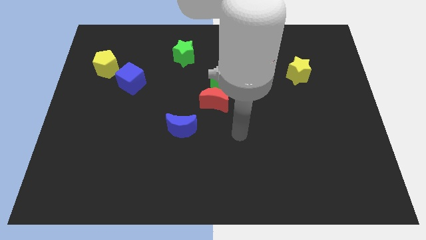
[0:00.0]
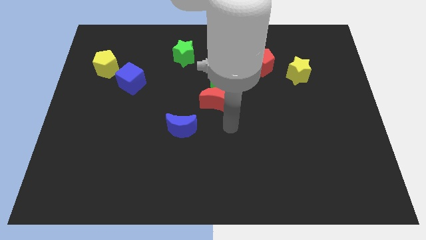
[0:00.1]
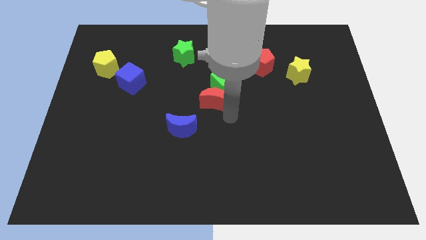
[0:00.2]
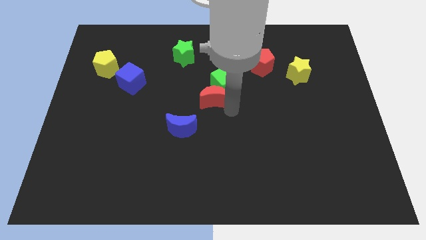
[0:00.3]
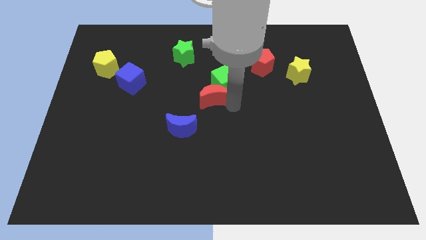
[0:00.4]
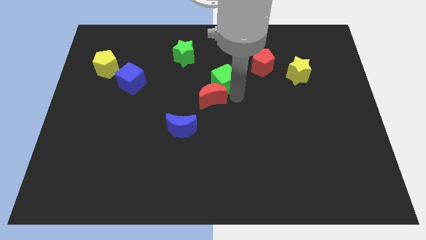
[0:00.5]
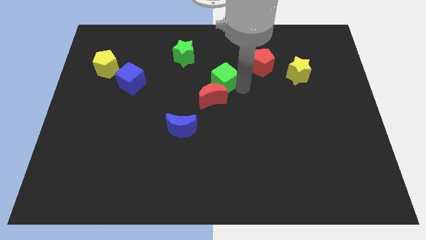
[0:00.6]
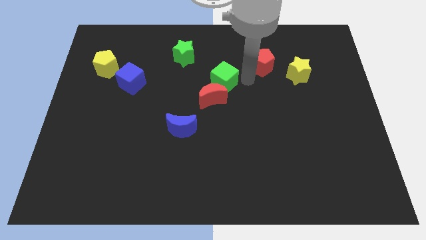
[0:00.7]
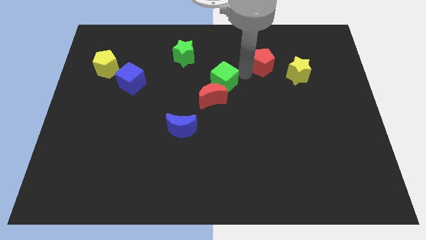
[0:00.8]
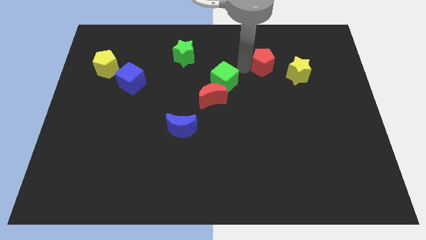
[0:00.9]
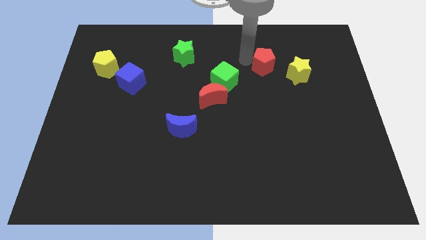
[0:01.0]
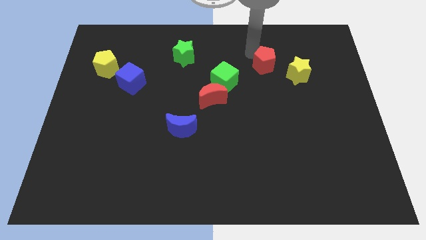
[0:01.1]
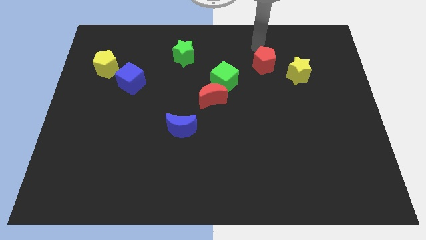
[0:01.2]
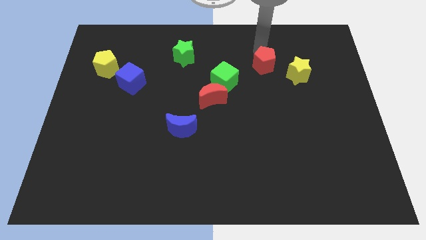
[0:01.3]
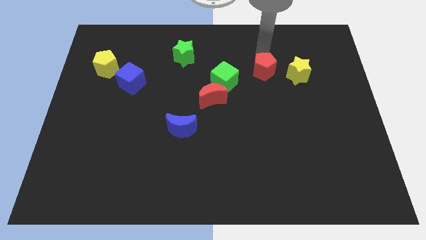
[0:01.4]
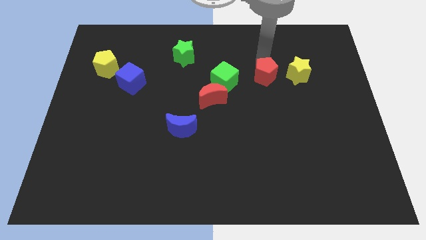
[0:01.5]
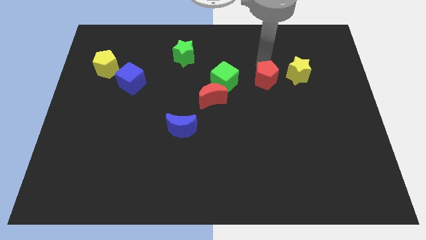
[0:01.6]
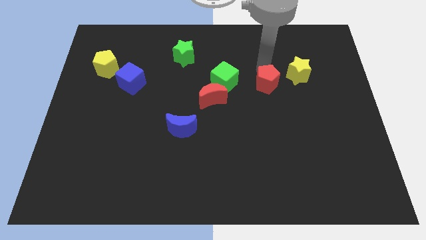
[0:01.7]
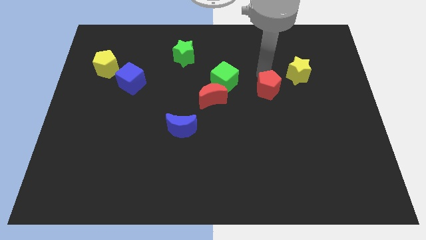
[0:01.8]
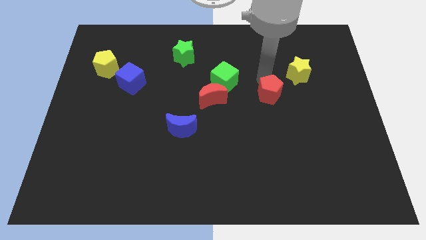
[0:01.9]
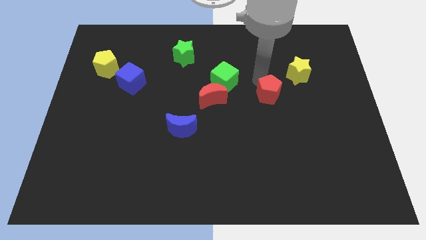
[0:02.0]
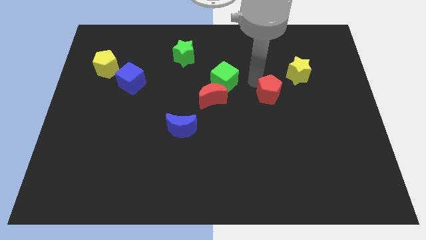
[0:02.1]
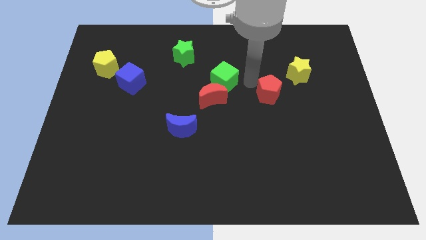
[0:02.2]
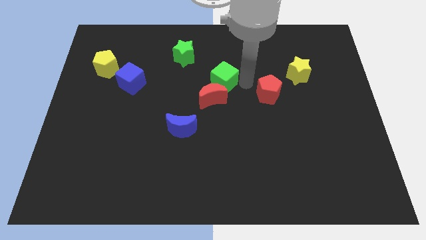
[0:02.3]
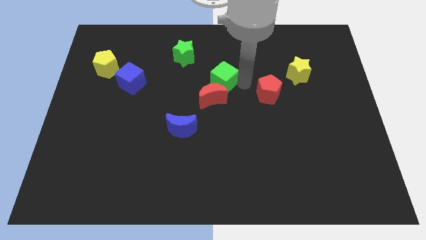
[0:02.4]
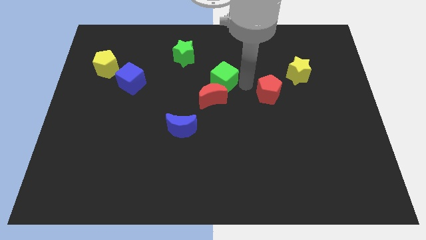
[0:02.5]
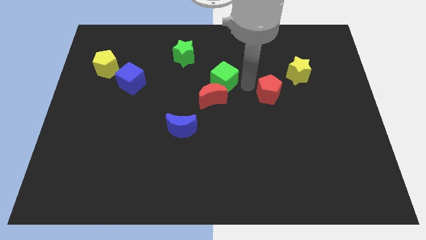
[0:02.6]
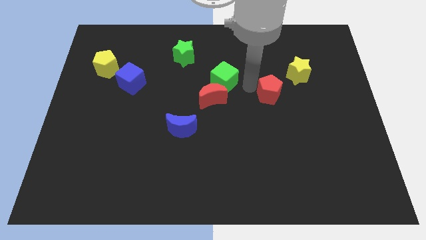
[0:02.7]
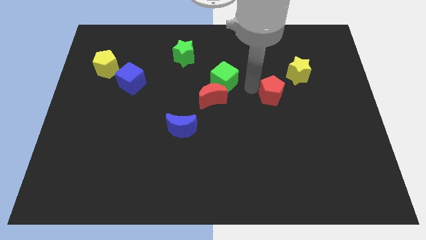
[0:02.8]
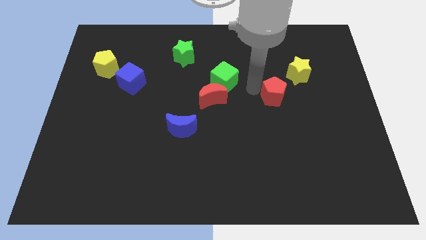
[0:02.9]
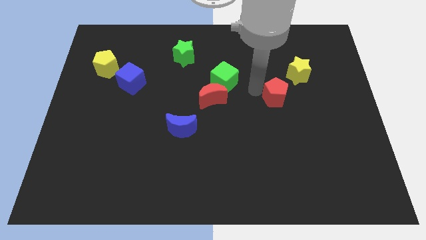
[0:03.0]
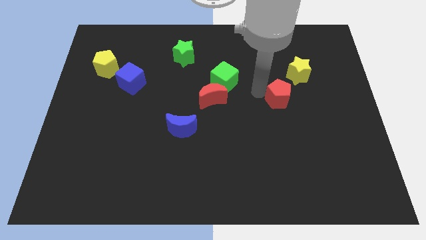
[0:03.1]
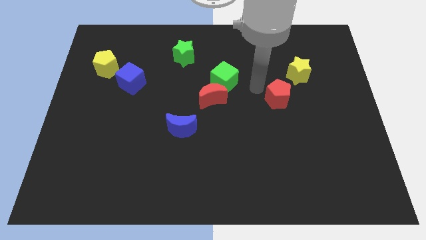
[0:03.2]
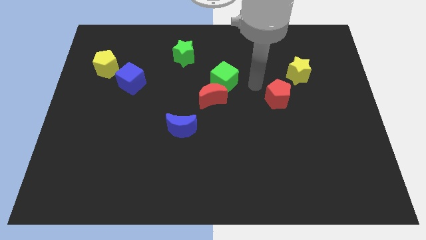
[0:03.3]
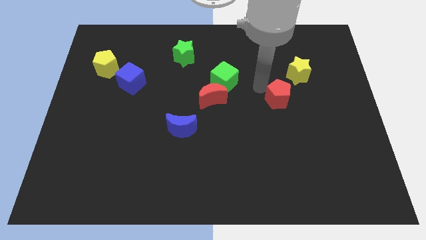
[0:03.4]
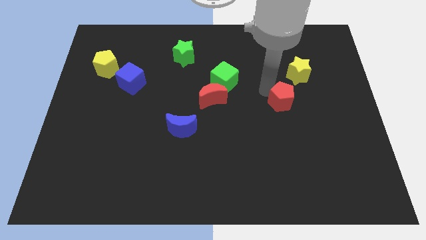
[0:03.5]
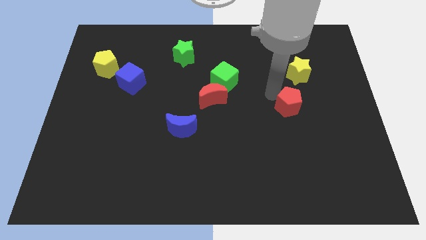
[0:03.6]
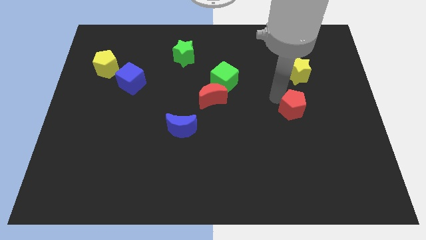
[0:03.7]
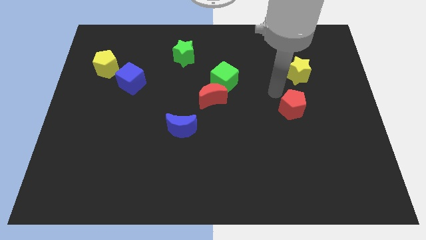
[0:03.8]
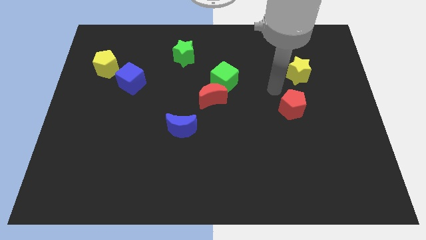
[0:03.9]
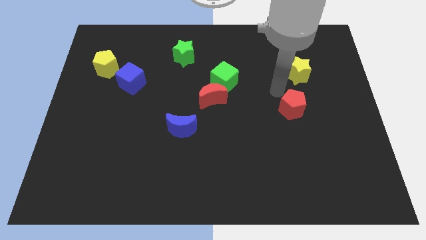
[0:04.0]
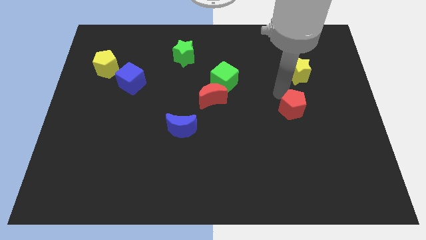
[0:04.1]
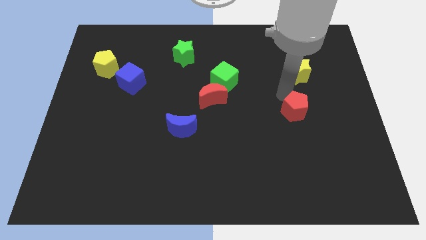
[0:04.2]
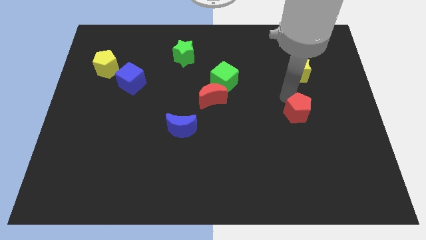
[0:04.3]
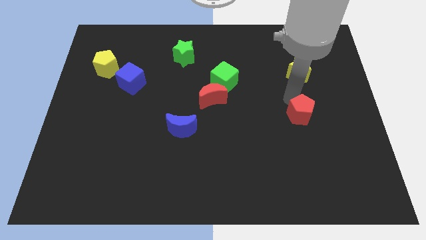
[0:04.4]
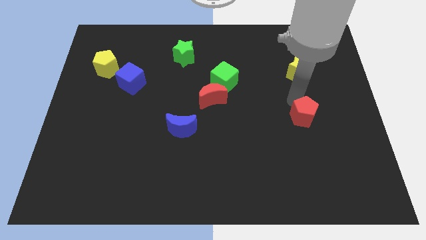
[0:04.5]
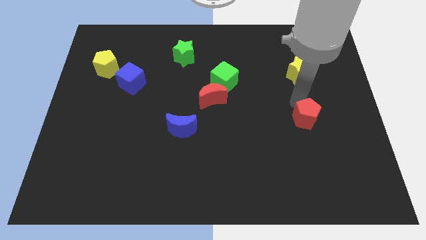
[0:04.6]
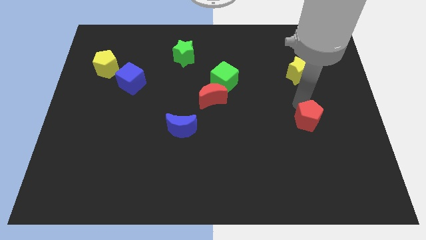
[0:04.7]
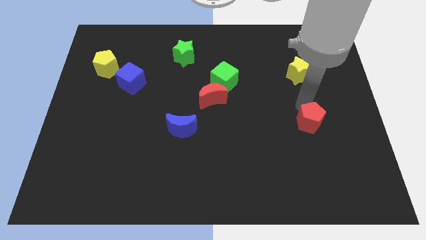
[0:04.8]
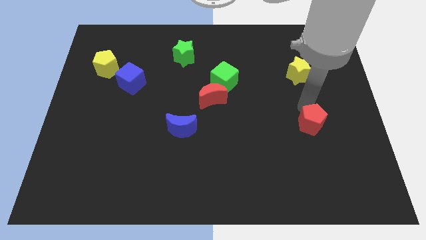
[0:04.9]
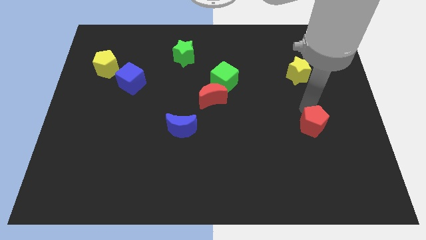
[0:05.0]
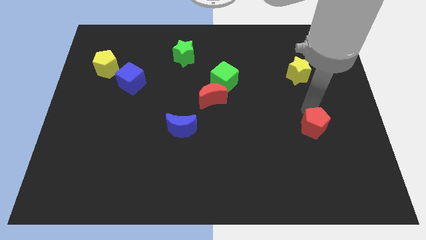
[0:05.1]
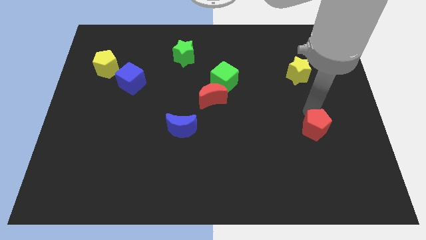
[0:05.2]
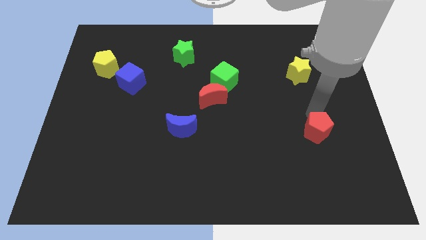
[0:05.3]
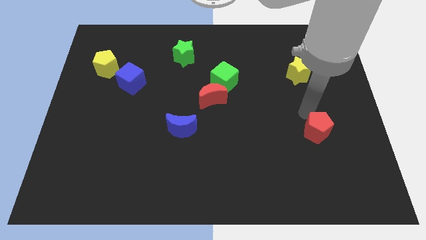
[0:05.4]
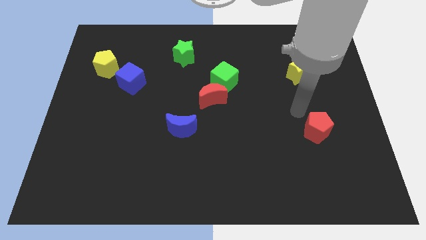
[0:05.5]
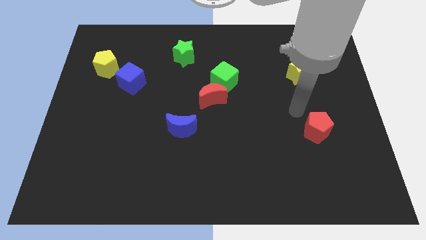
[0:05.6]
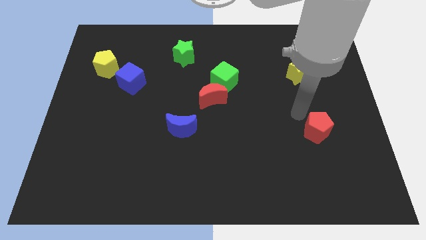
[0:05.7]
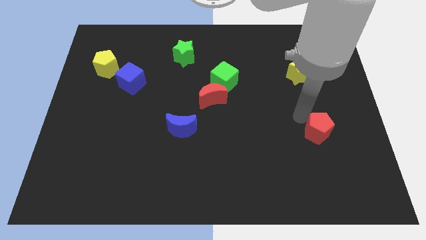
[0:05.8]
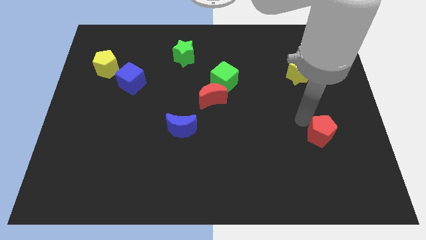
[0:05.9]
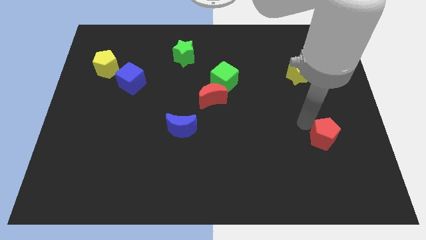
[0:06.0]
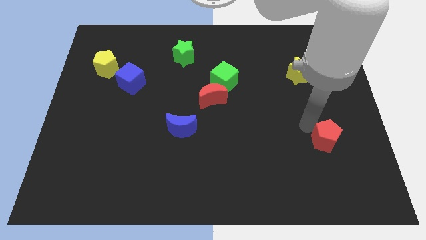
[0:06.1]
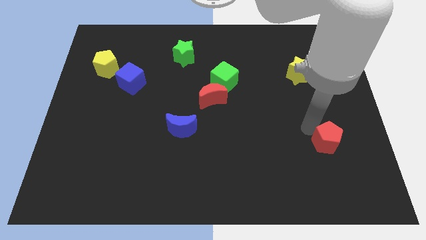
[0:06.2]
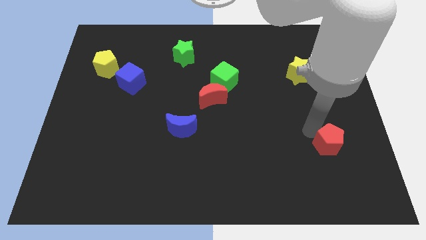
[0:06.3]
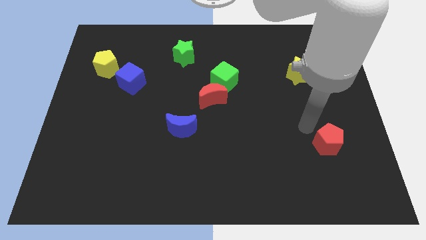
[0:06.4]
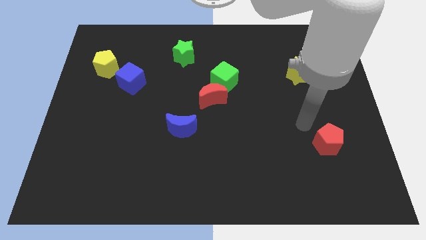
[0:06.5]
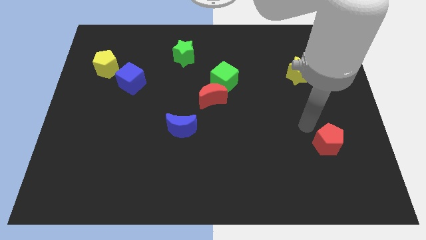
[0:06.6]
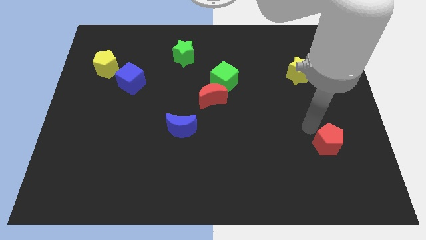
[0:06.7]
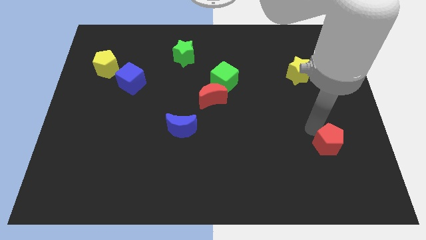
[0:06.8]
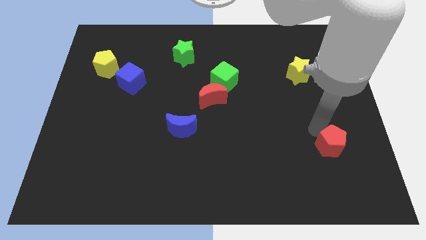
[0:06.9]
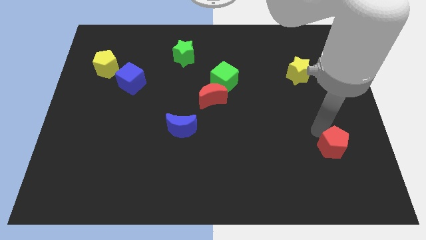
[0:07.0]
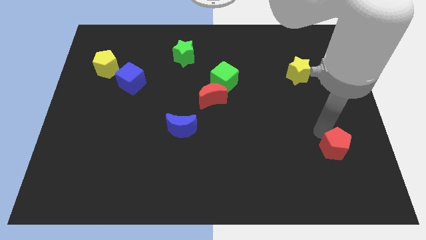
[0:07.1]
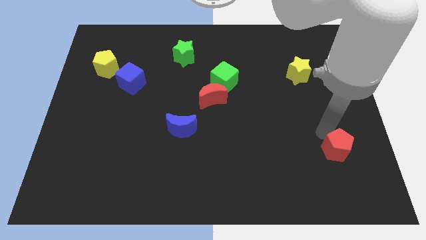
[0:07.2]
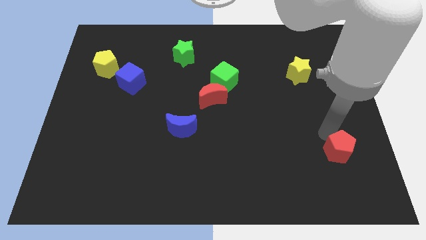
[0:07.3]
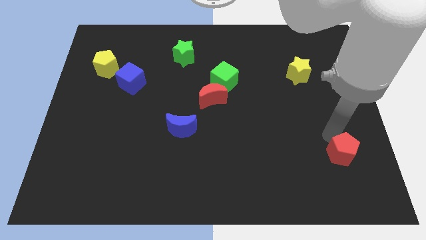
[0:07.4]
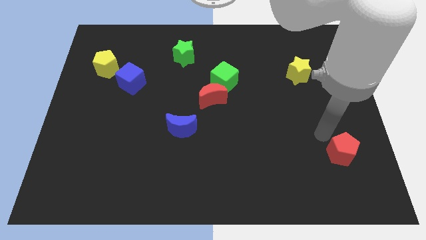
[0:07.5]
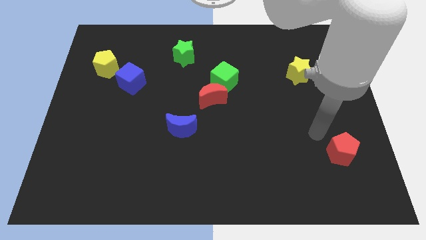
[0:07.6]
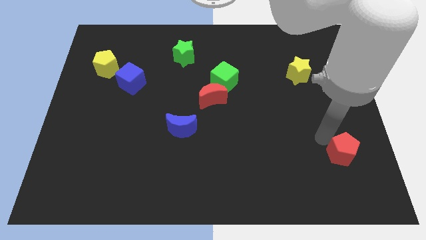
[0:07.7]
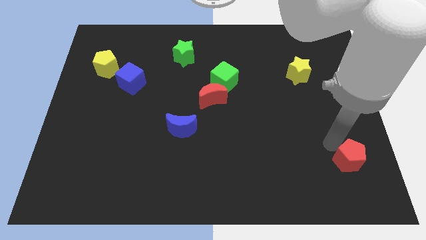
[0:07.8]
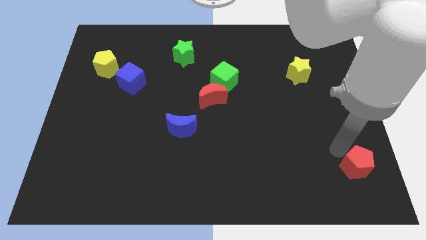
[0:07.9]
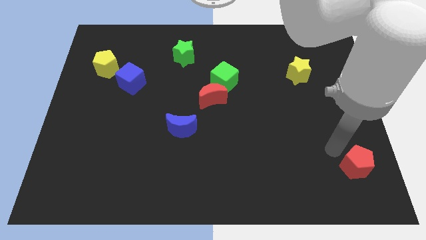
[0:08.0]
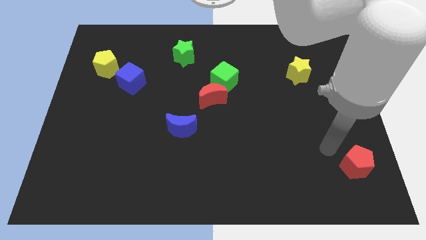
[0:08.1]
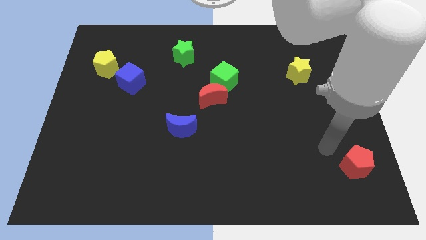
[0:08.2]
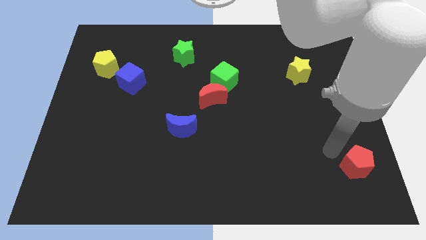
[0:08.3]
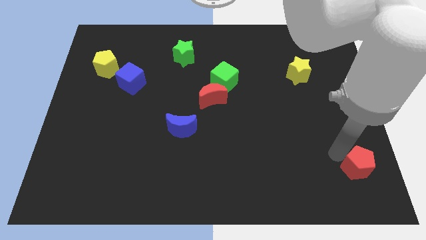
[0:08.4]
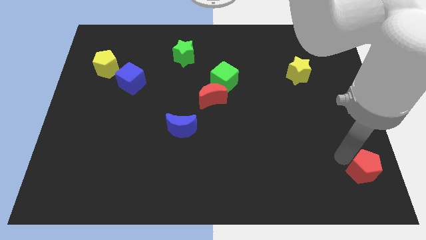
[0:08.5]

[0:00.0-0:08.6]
slide the red pentagon to the lower right corner
